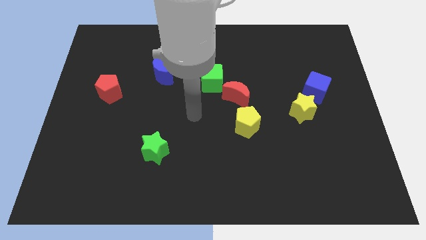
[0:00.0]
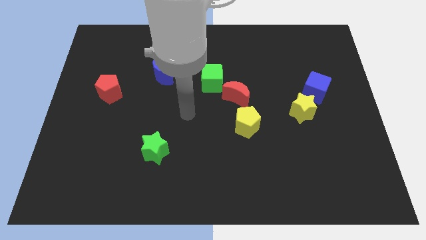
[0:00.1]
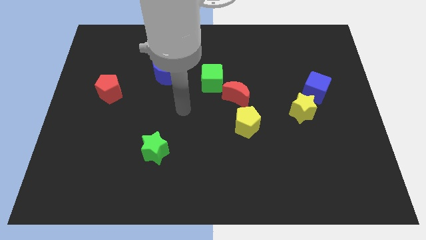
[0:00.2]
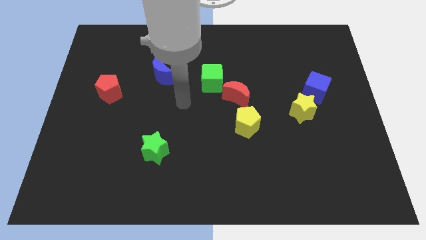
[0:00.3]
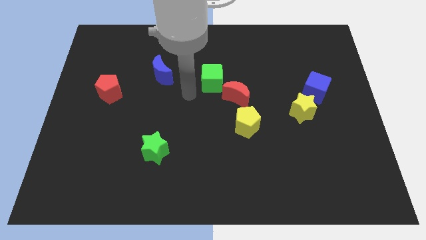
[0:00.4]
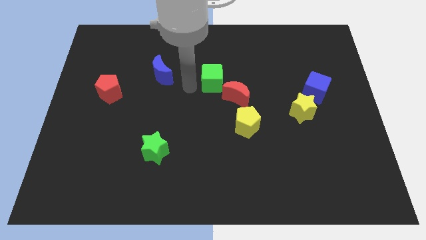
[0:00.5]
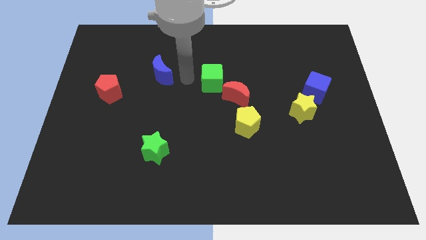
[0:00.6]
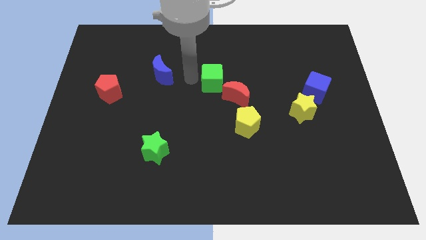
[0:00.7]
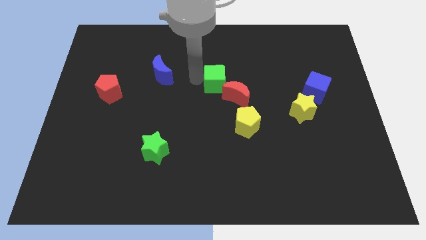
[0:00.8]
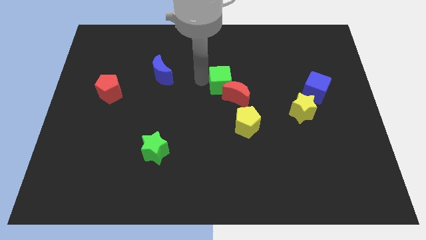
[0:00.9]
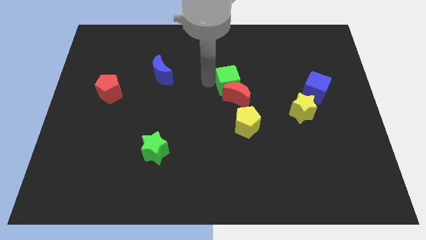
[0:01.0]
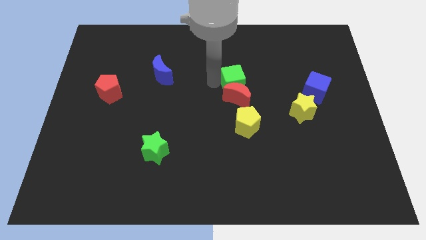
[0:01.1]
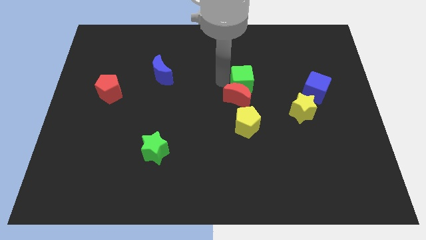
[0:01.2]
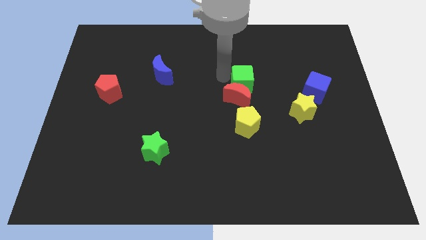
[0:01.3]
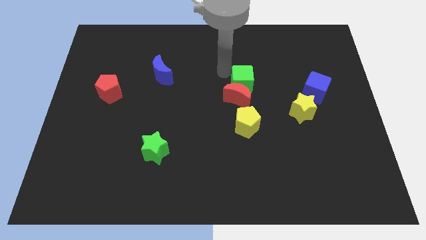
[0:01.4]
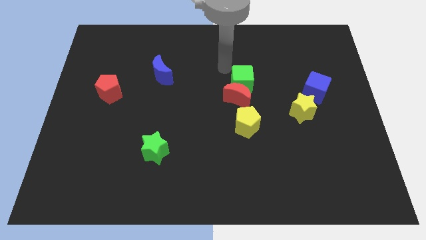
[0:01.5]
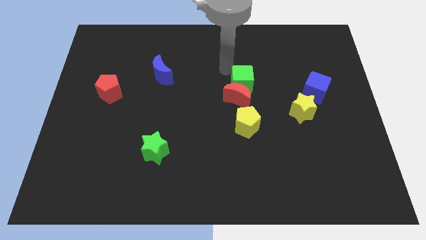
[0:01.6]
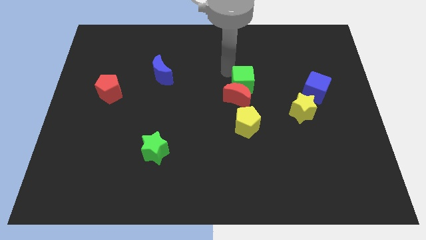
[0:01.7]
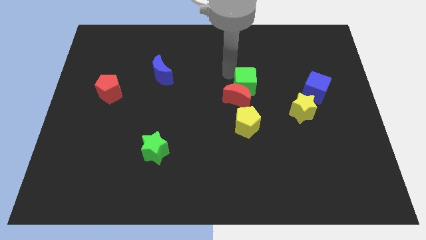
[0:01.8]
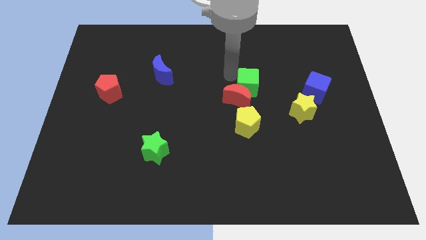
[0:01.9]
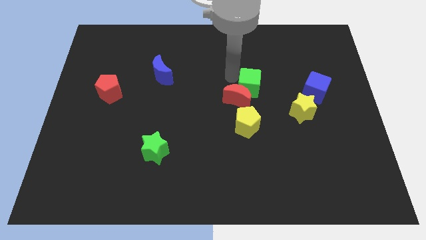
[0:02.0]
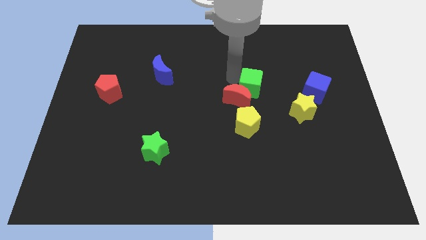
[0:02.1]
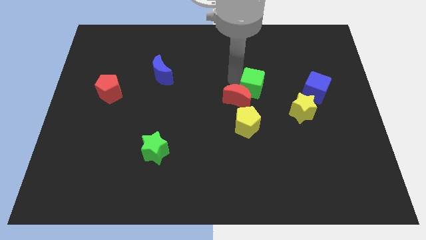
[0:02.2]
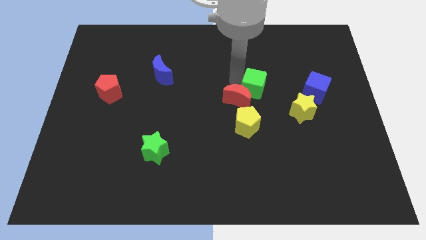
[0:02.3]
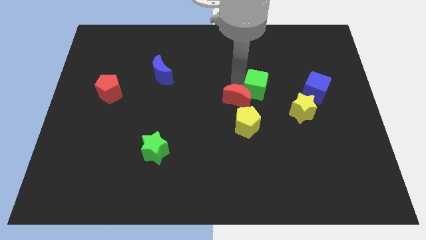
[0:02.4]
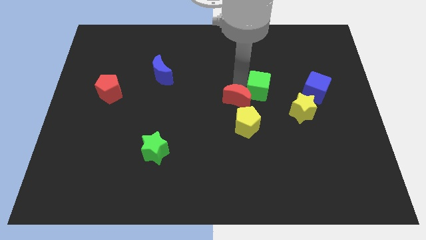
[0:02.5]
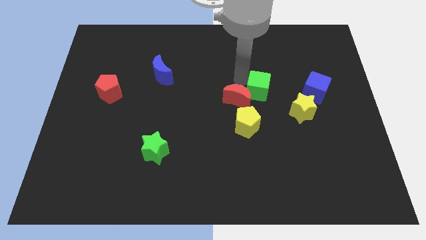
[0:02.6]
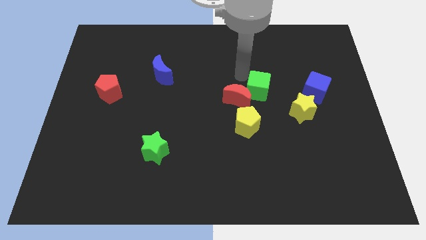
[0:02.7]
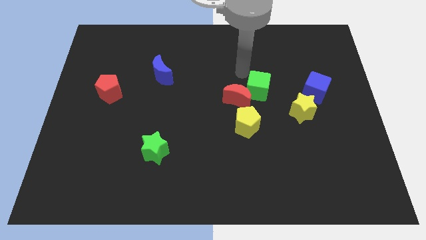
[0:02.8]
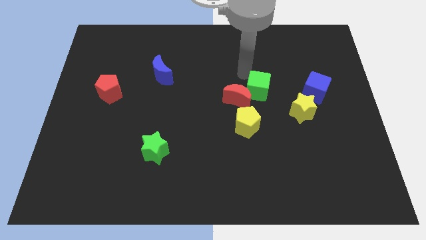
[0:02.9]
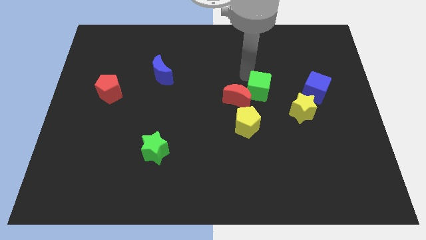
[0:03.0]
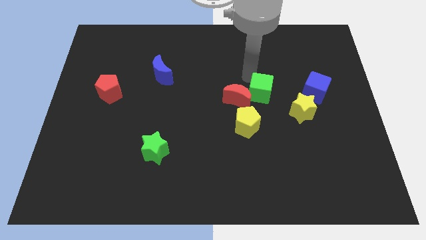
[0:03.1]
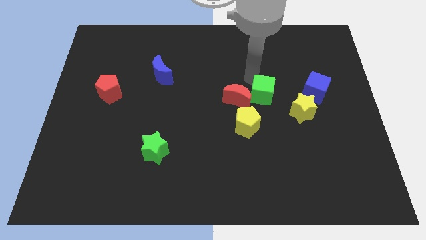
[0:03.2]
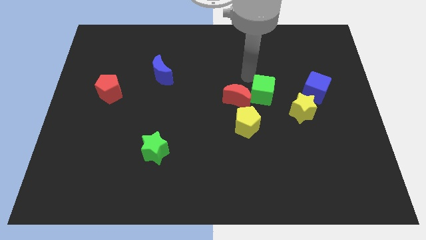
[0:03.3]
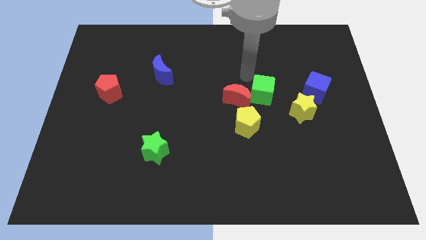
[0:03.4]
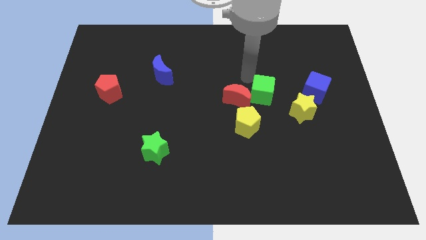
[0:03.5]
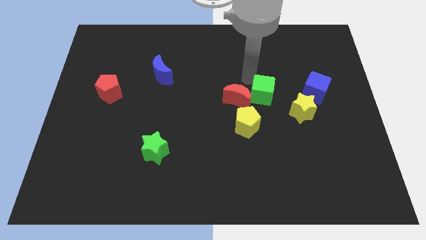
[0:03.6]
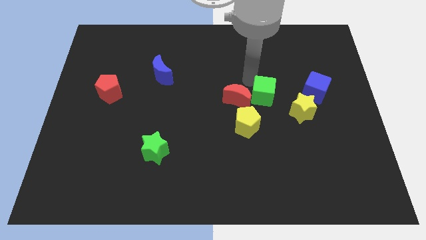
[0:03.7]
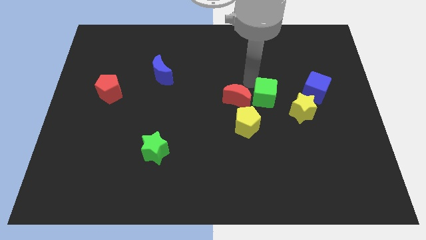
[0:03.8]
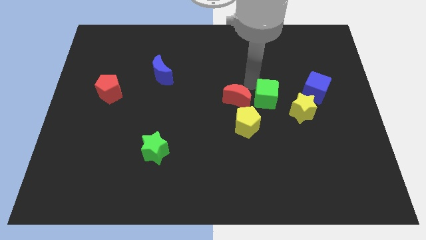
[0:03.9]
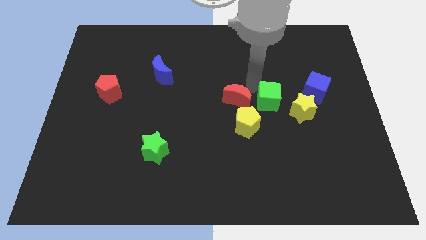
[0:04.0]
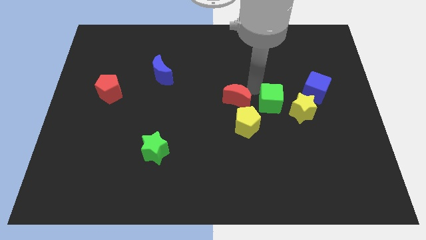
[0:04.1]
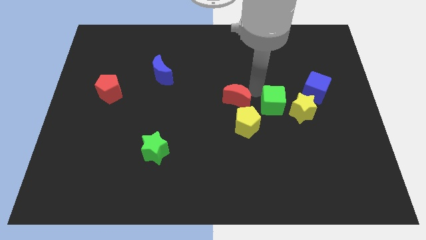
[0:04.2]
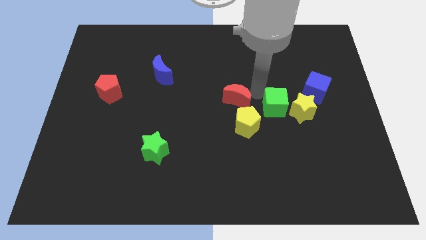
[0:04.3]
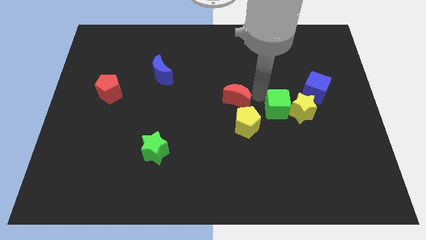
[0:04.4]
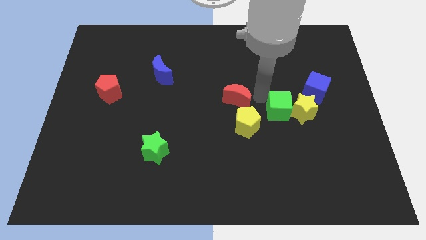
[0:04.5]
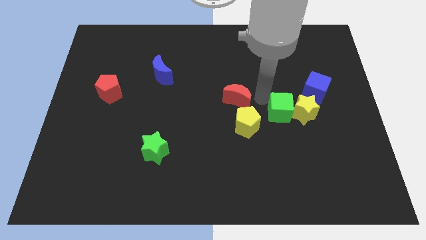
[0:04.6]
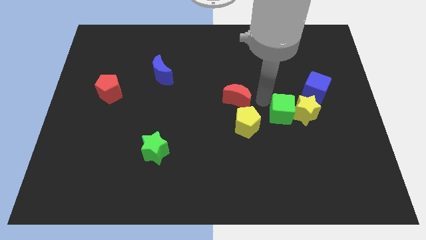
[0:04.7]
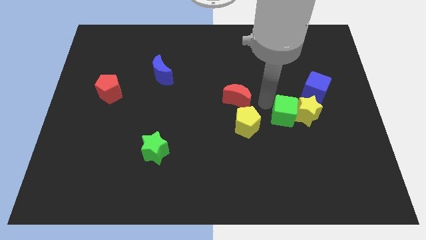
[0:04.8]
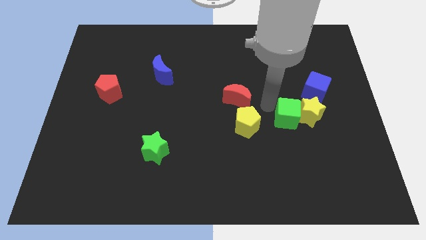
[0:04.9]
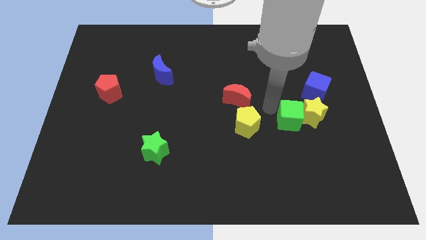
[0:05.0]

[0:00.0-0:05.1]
push the green cube diagonally down and right

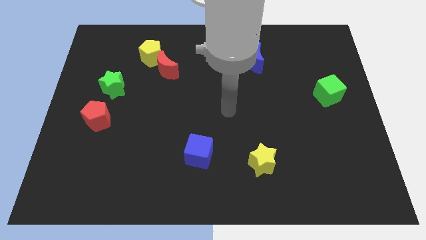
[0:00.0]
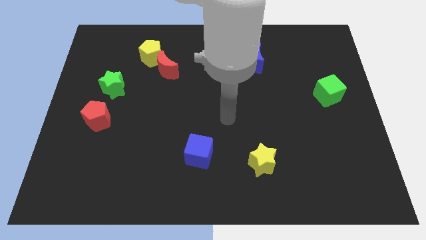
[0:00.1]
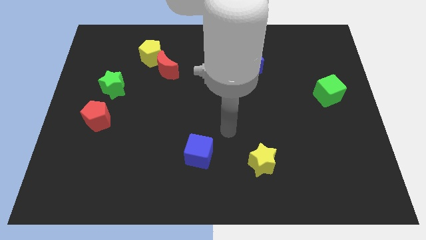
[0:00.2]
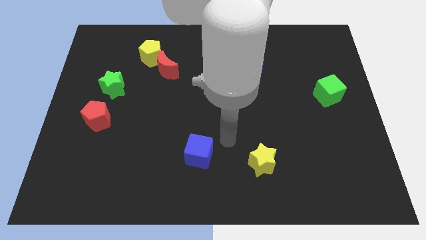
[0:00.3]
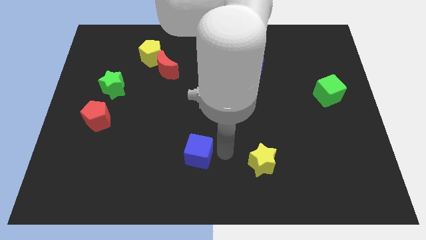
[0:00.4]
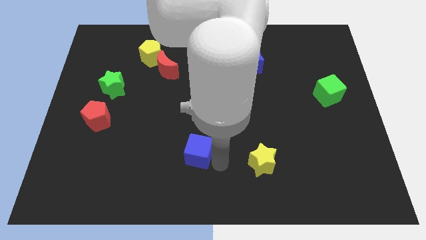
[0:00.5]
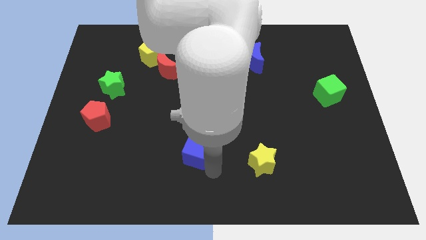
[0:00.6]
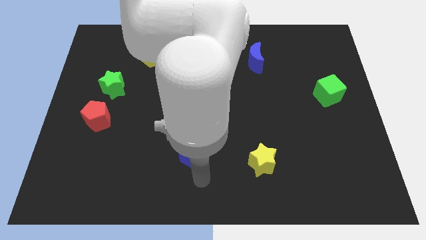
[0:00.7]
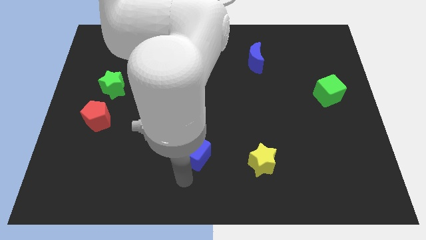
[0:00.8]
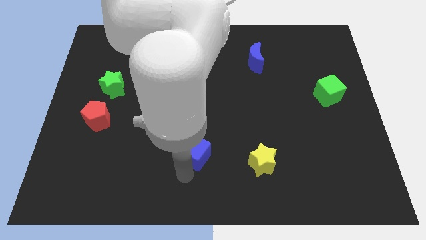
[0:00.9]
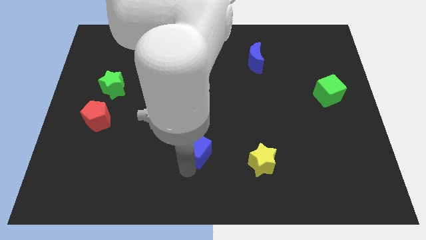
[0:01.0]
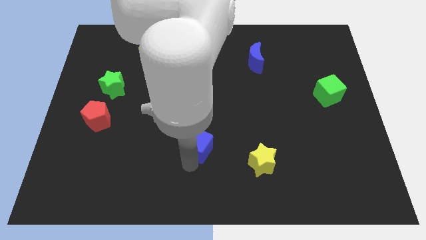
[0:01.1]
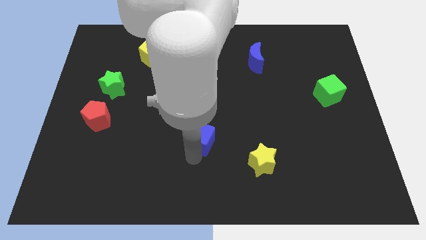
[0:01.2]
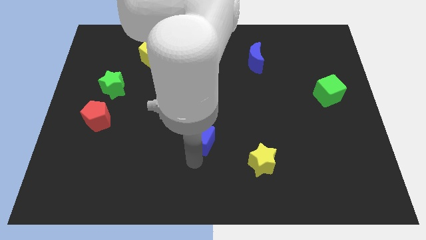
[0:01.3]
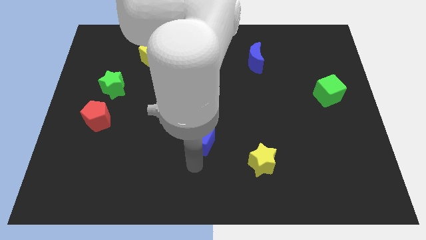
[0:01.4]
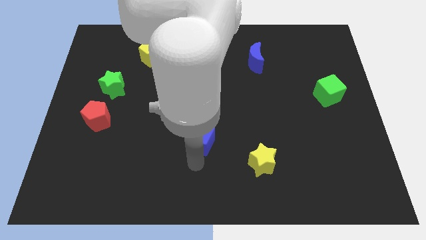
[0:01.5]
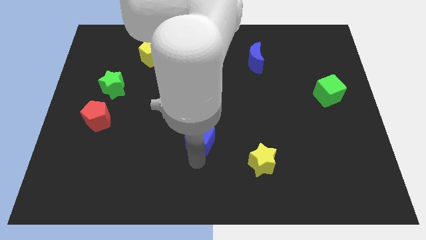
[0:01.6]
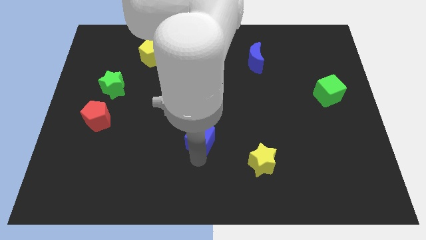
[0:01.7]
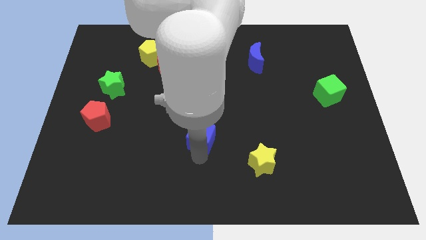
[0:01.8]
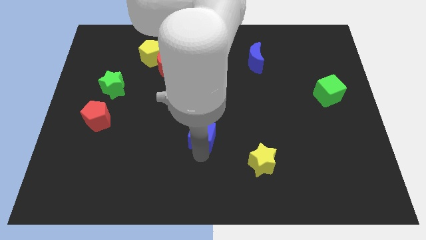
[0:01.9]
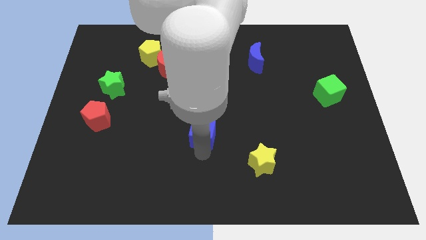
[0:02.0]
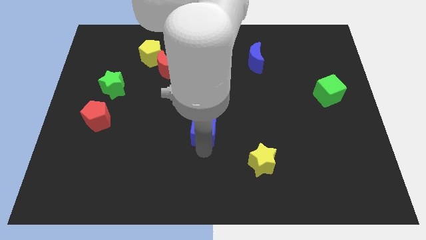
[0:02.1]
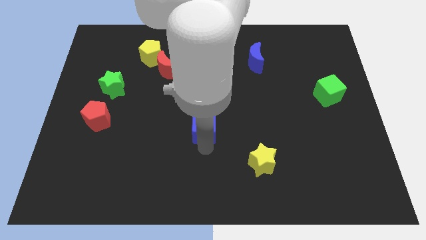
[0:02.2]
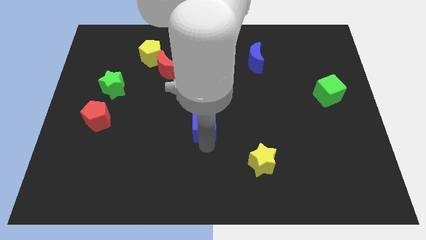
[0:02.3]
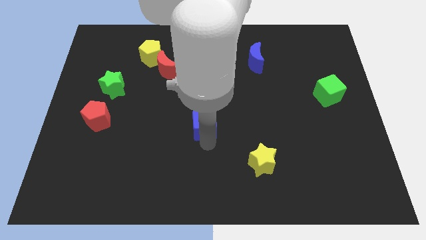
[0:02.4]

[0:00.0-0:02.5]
move the blue cube upwards a little bit

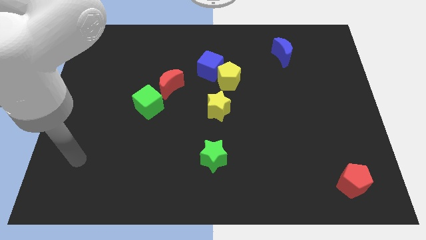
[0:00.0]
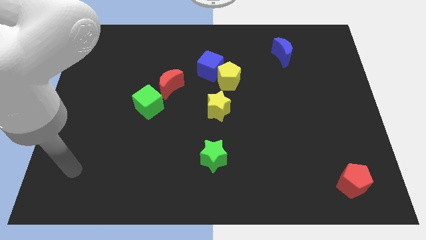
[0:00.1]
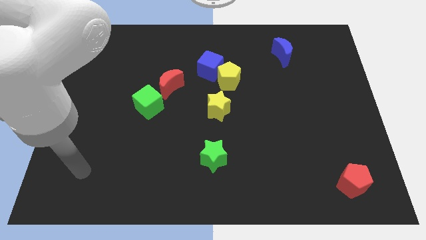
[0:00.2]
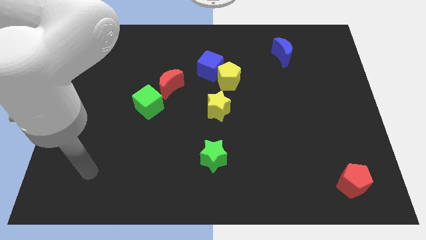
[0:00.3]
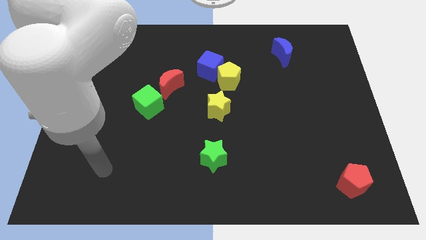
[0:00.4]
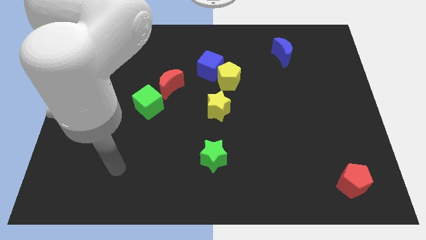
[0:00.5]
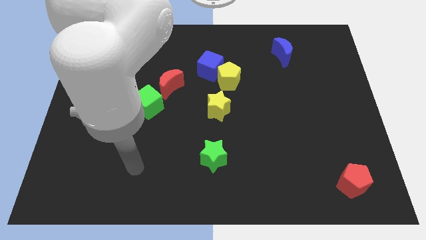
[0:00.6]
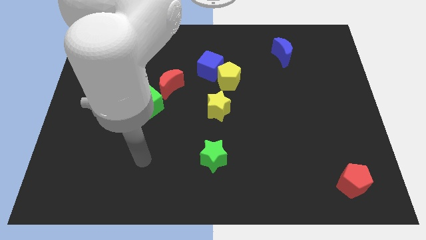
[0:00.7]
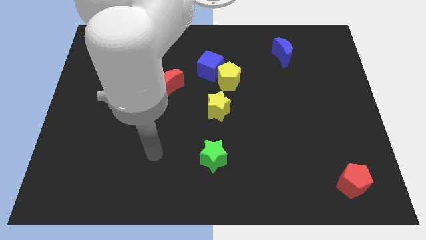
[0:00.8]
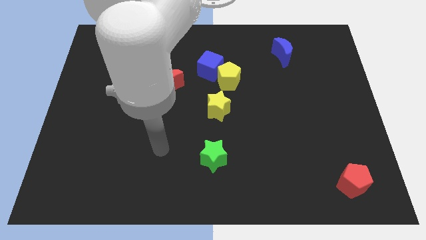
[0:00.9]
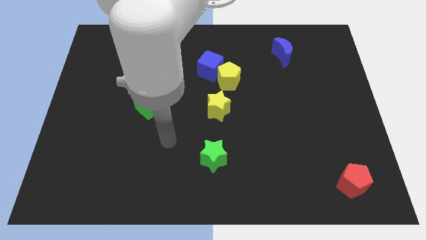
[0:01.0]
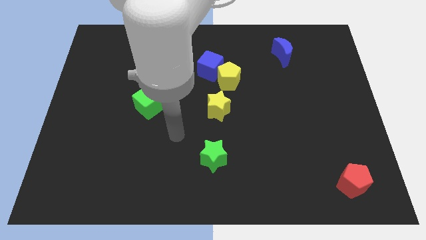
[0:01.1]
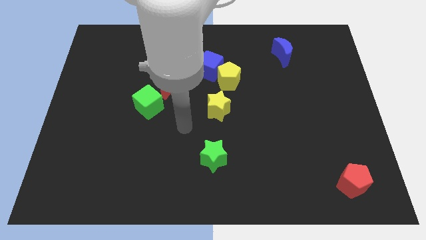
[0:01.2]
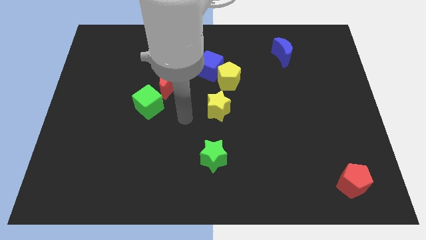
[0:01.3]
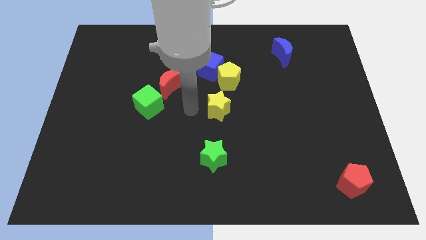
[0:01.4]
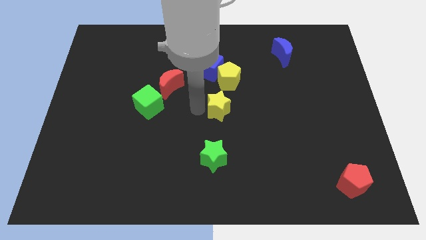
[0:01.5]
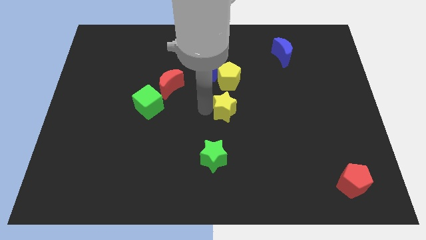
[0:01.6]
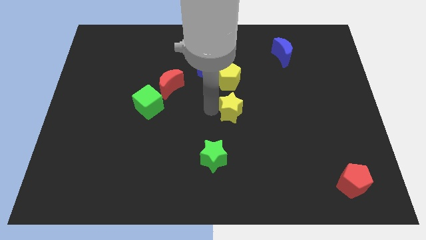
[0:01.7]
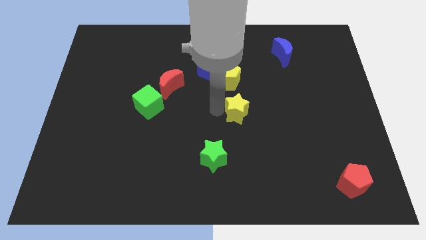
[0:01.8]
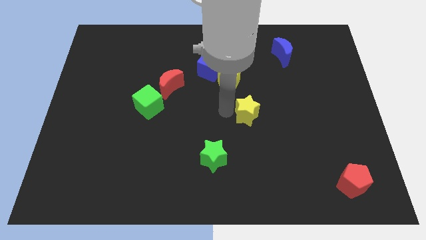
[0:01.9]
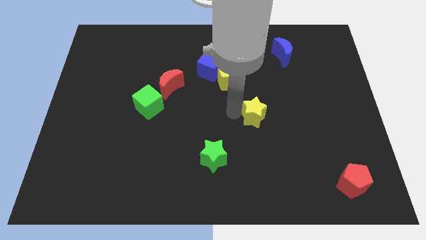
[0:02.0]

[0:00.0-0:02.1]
push the yellow star right a little
